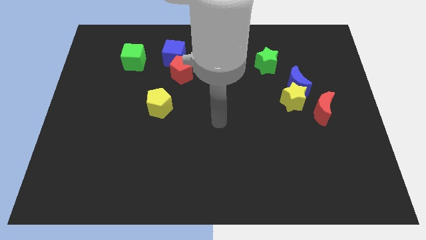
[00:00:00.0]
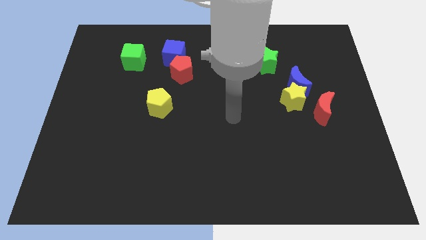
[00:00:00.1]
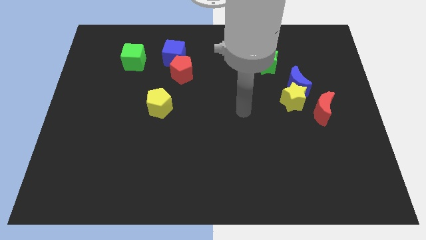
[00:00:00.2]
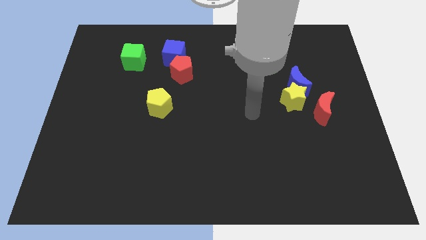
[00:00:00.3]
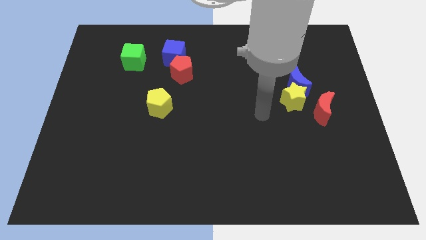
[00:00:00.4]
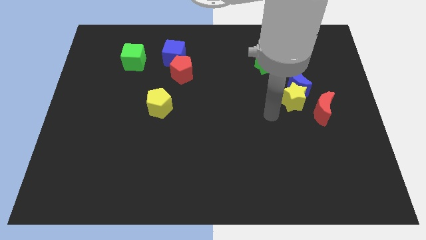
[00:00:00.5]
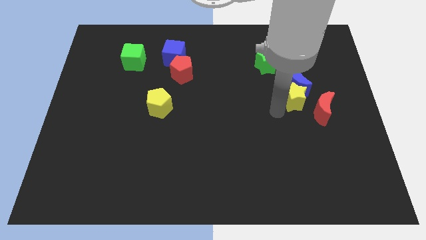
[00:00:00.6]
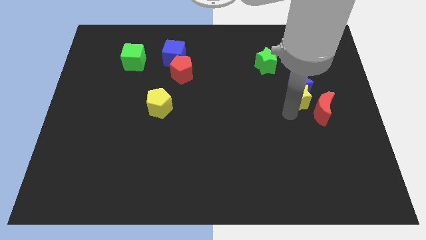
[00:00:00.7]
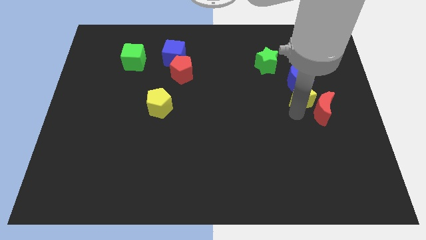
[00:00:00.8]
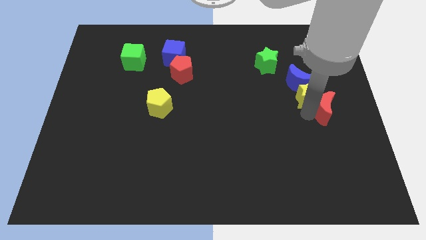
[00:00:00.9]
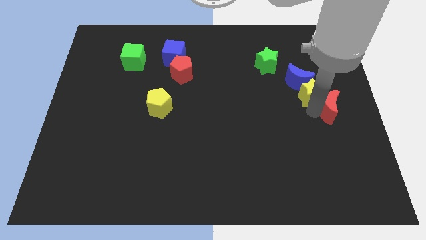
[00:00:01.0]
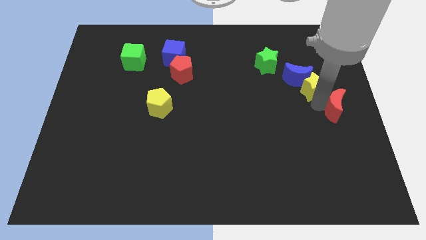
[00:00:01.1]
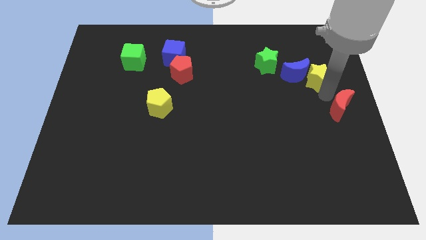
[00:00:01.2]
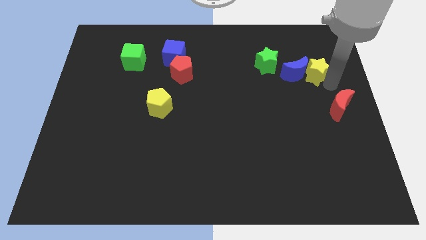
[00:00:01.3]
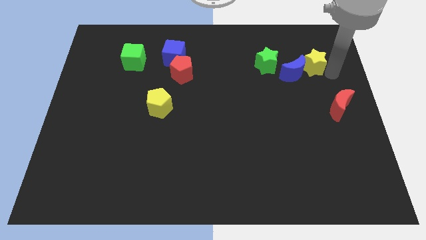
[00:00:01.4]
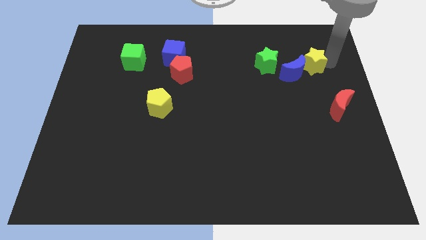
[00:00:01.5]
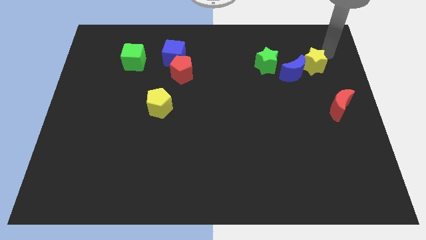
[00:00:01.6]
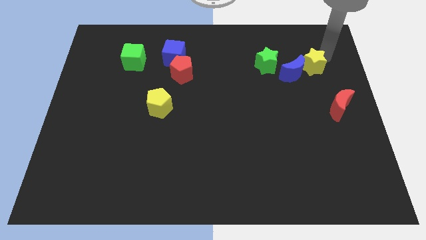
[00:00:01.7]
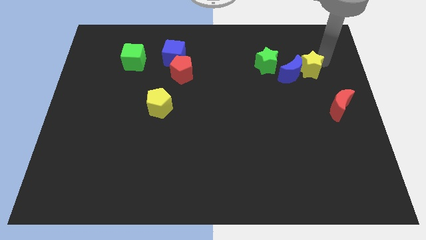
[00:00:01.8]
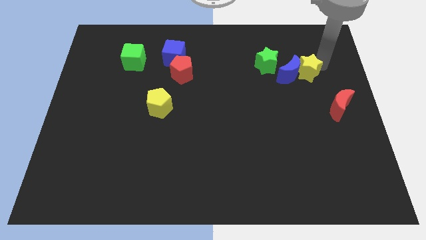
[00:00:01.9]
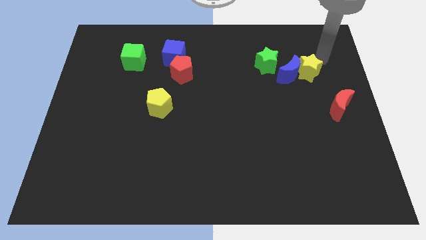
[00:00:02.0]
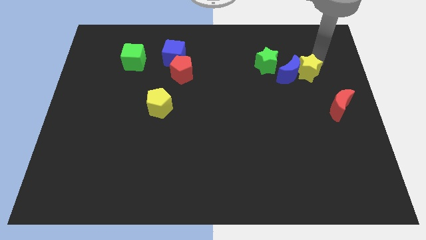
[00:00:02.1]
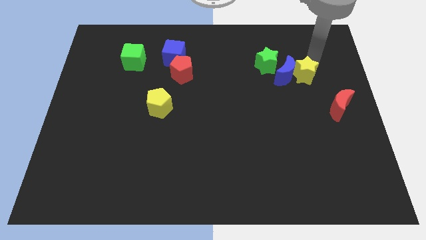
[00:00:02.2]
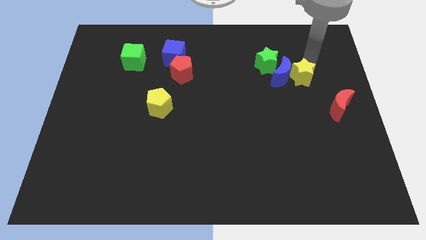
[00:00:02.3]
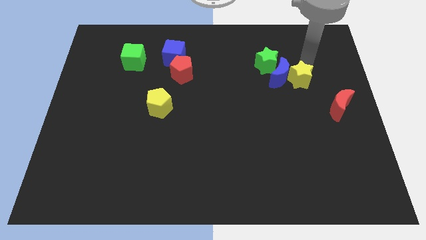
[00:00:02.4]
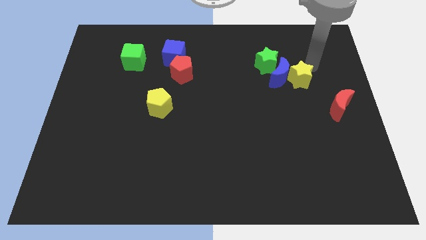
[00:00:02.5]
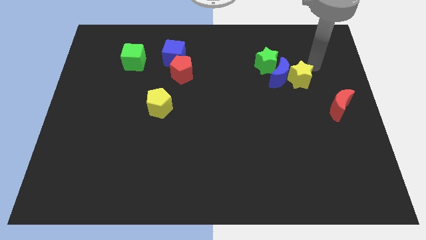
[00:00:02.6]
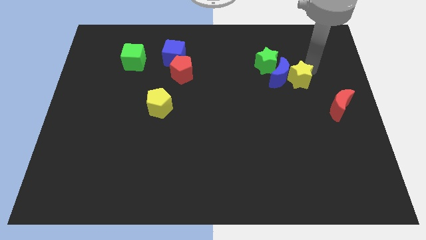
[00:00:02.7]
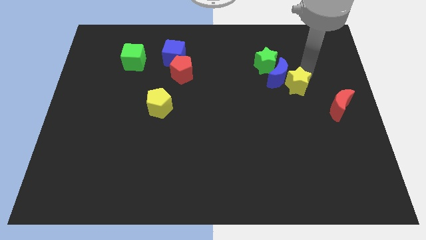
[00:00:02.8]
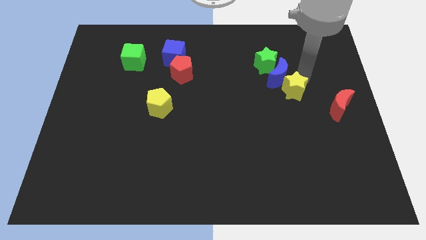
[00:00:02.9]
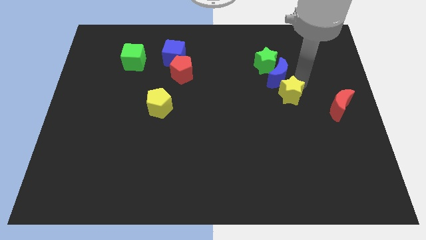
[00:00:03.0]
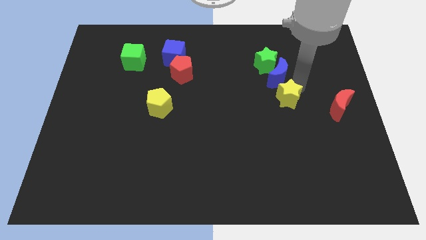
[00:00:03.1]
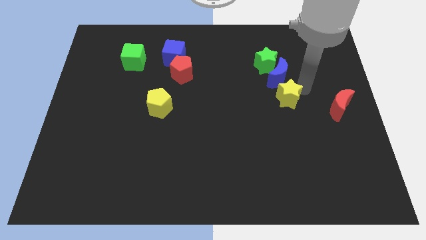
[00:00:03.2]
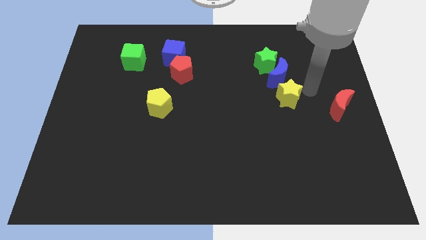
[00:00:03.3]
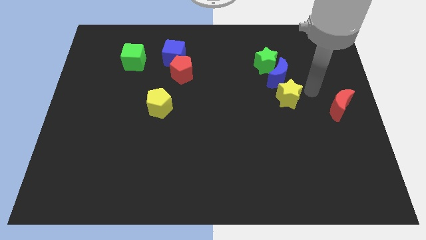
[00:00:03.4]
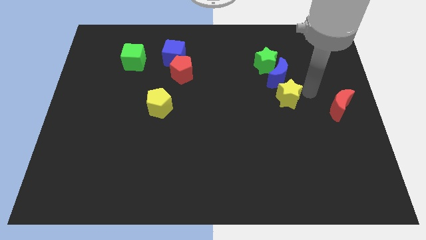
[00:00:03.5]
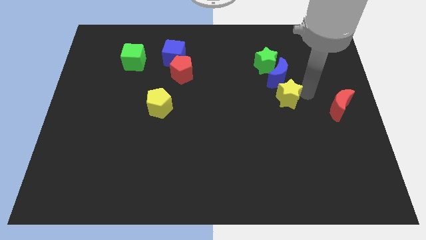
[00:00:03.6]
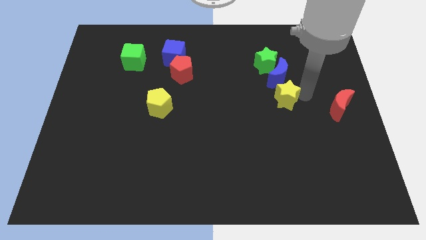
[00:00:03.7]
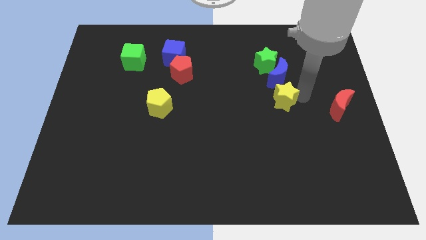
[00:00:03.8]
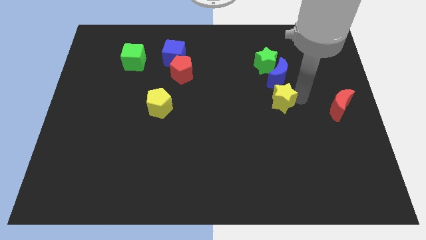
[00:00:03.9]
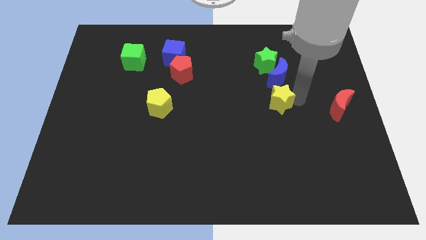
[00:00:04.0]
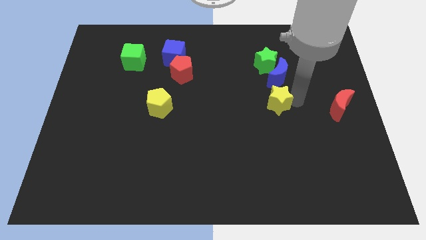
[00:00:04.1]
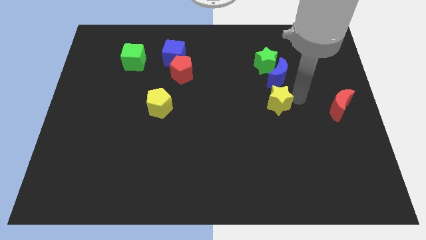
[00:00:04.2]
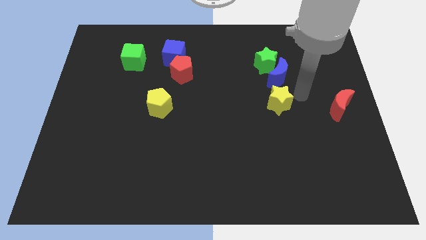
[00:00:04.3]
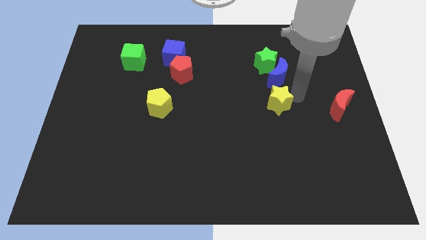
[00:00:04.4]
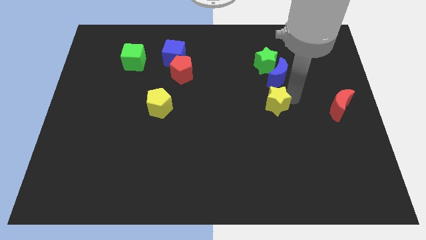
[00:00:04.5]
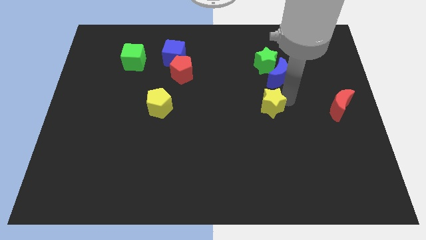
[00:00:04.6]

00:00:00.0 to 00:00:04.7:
move the yellow star away from the blue moon and red moon

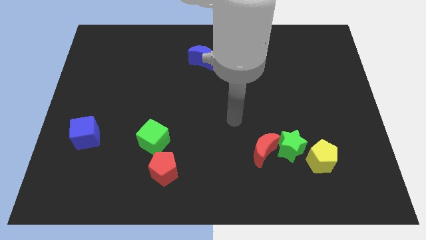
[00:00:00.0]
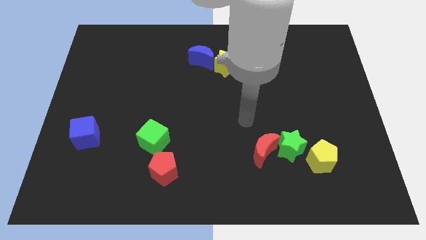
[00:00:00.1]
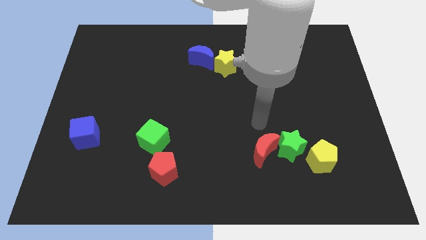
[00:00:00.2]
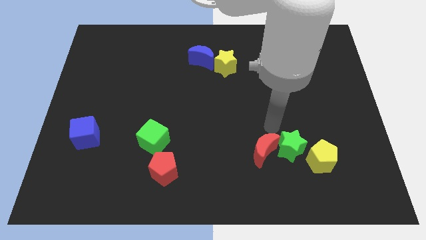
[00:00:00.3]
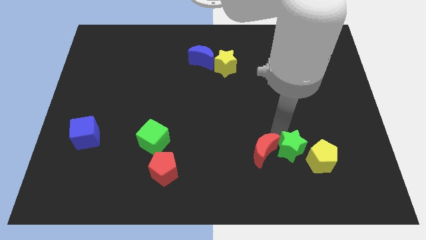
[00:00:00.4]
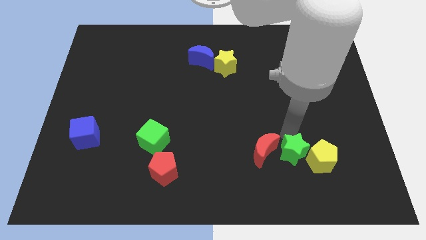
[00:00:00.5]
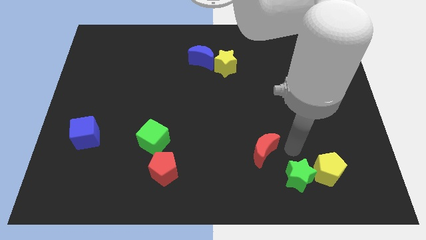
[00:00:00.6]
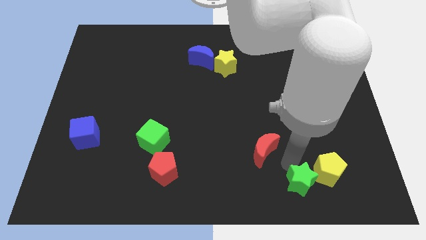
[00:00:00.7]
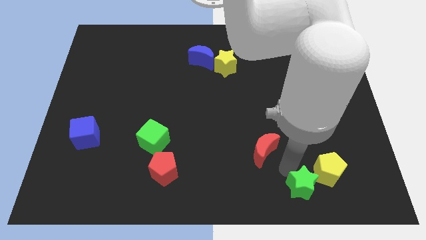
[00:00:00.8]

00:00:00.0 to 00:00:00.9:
separate the red moon from the green star

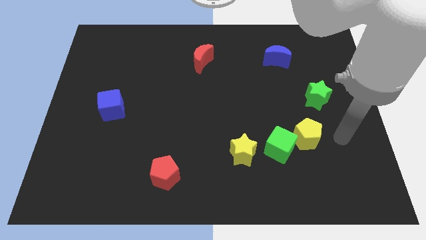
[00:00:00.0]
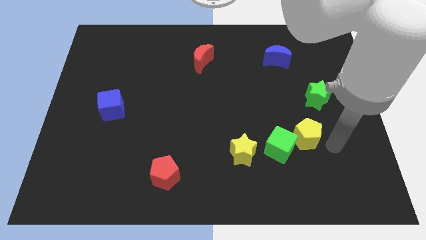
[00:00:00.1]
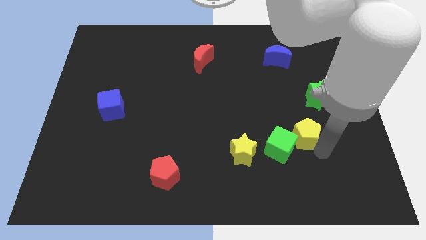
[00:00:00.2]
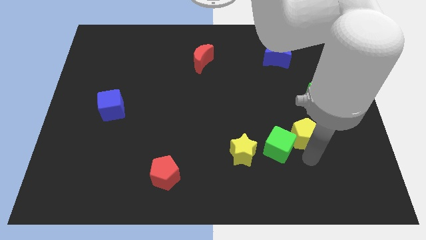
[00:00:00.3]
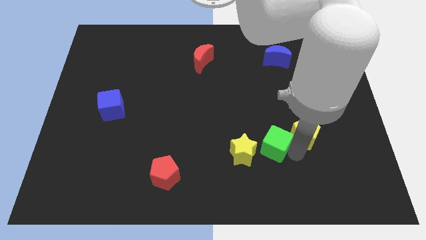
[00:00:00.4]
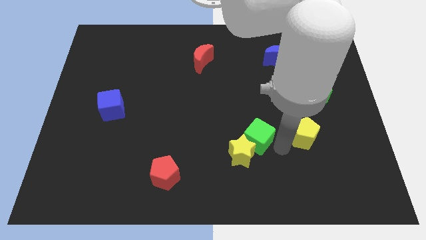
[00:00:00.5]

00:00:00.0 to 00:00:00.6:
pull the yellow pentagon apart from the green cube

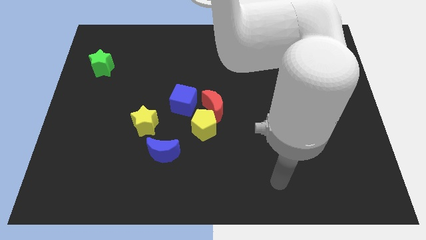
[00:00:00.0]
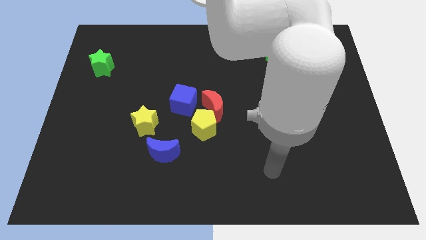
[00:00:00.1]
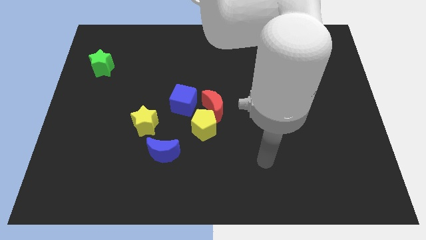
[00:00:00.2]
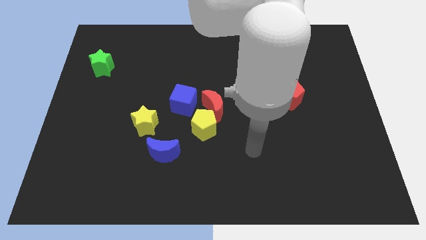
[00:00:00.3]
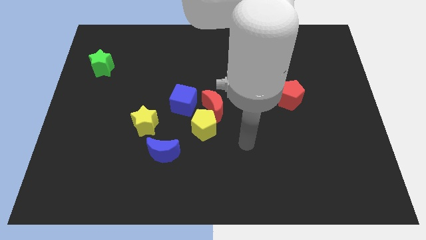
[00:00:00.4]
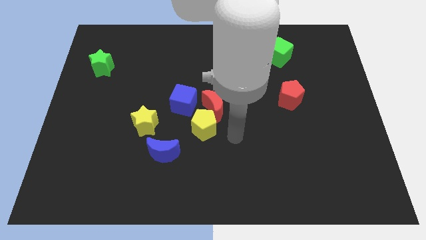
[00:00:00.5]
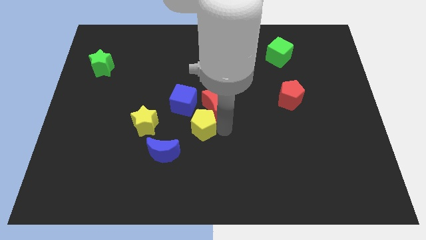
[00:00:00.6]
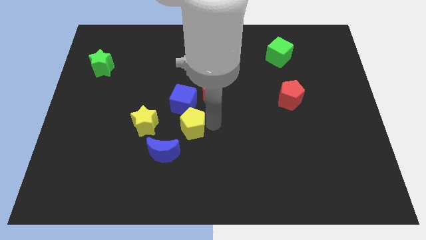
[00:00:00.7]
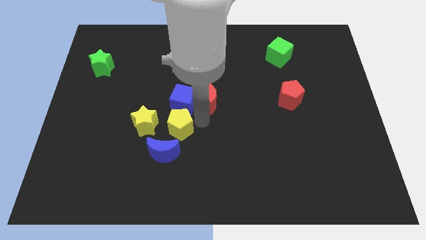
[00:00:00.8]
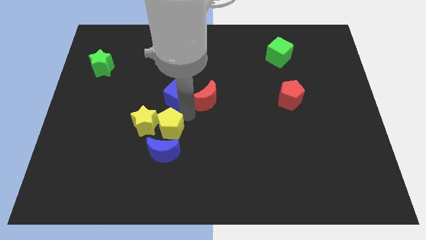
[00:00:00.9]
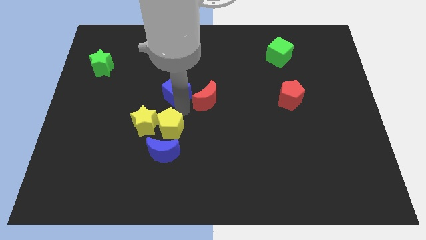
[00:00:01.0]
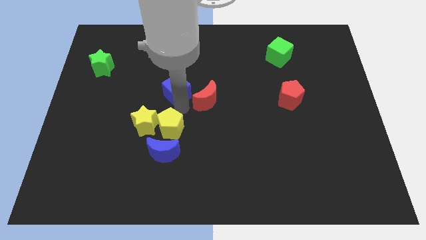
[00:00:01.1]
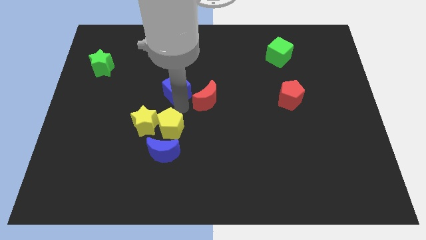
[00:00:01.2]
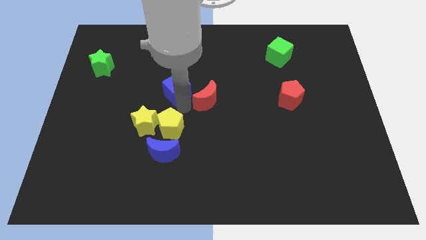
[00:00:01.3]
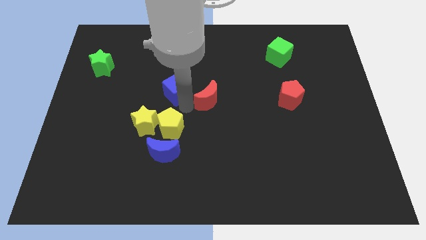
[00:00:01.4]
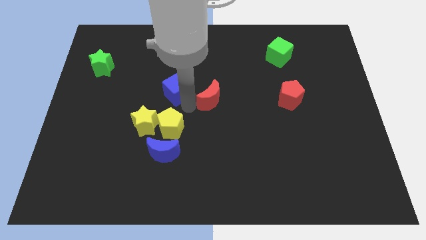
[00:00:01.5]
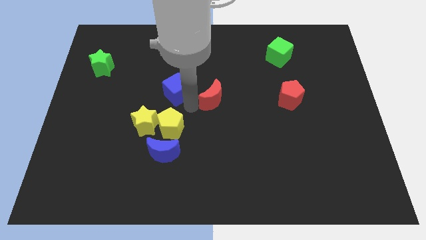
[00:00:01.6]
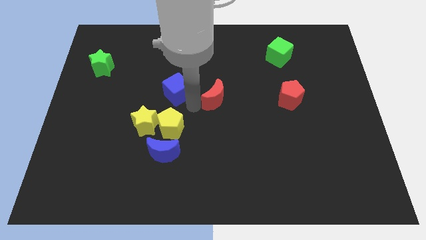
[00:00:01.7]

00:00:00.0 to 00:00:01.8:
move the red moon away from the yellow pentagon and blue cube

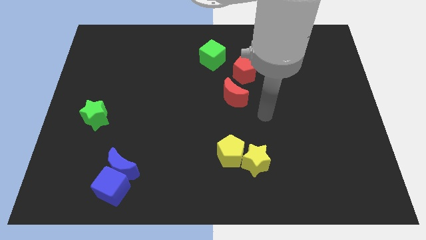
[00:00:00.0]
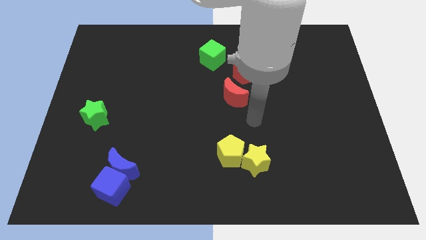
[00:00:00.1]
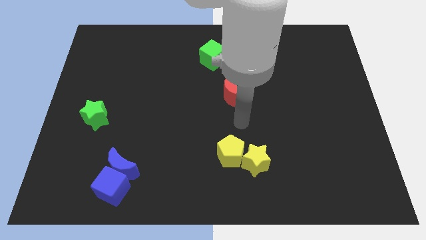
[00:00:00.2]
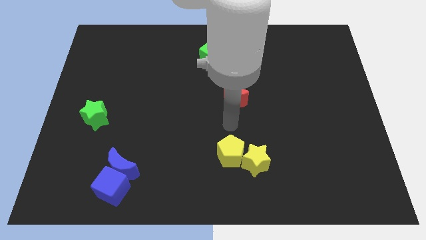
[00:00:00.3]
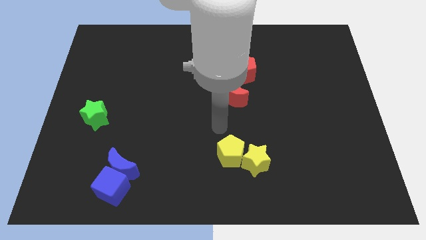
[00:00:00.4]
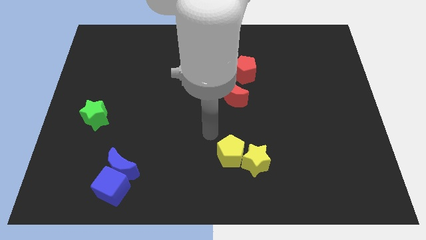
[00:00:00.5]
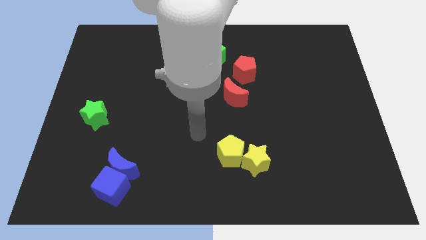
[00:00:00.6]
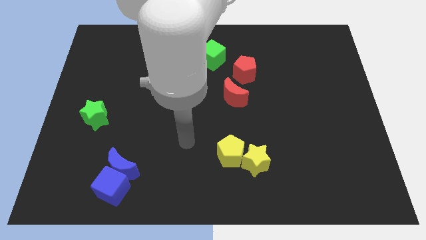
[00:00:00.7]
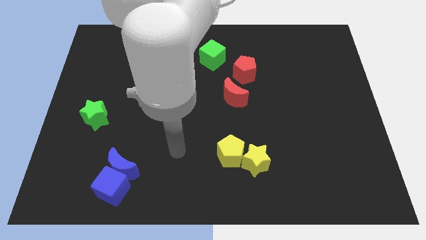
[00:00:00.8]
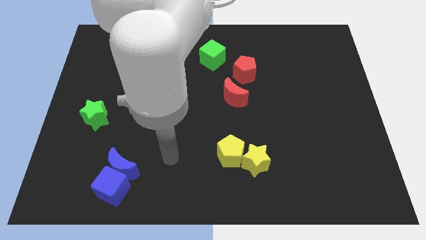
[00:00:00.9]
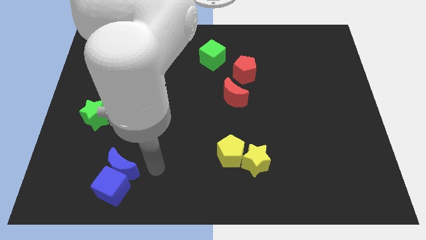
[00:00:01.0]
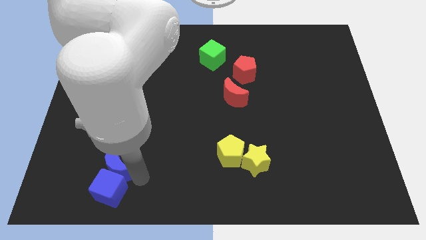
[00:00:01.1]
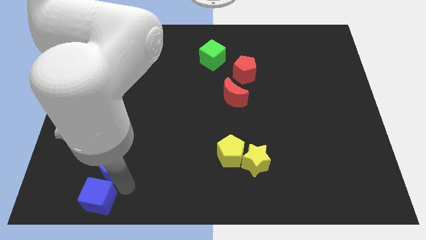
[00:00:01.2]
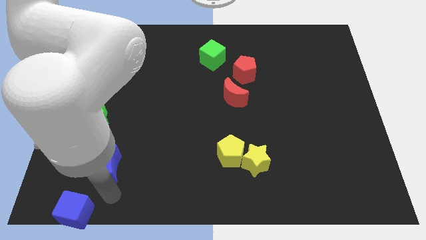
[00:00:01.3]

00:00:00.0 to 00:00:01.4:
move the blue moon away from the blue cube
